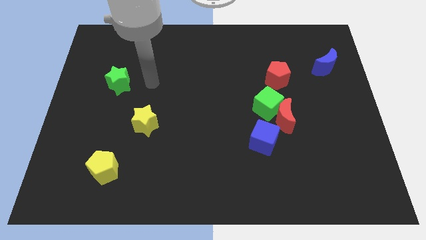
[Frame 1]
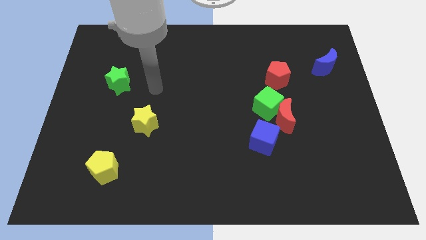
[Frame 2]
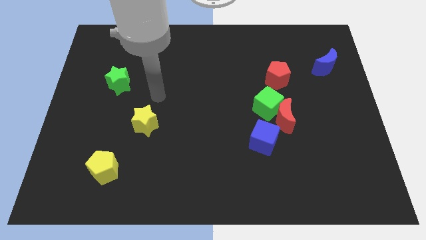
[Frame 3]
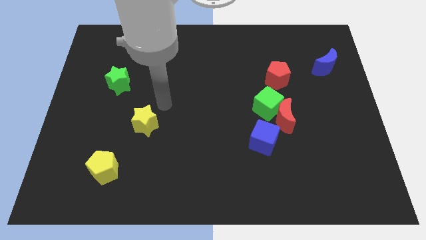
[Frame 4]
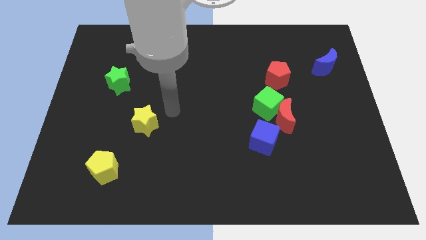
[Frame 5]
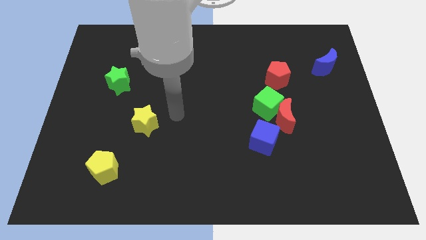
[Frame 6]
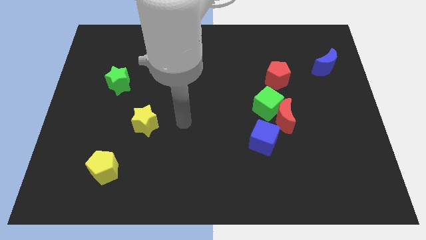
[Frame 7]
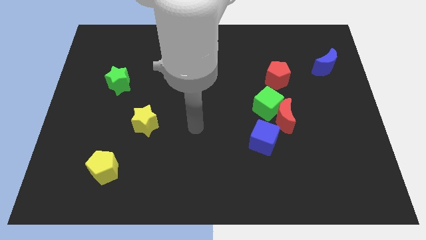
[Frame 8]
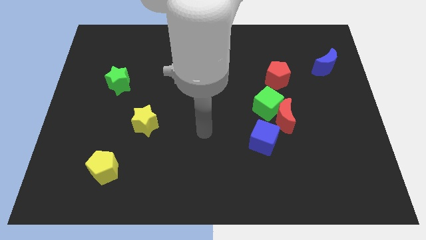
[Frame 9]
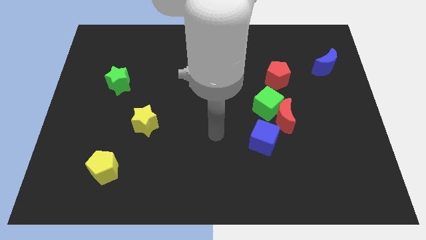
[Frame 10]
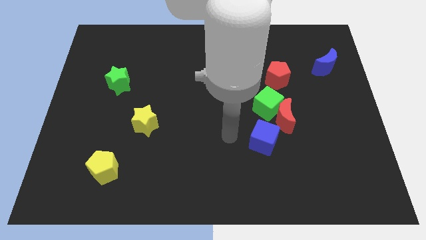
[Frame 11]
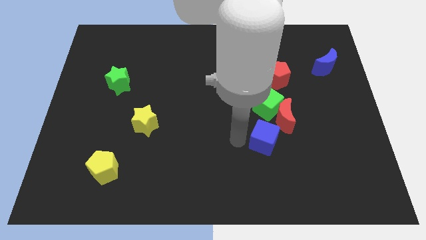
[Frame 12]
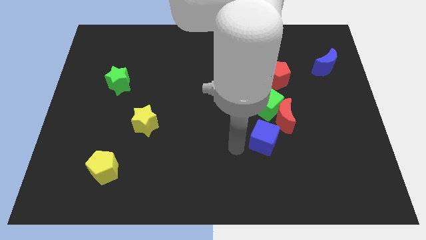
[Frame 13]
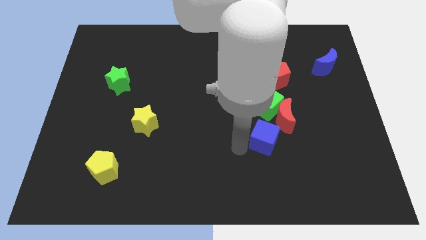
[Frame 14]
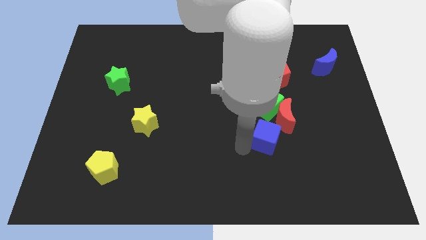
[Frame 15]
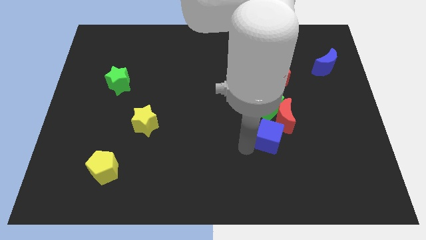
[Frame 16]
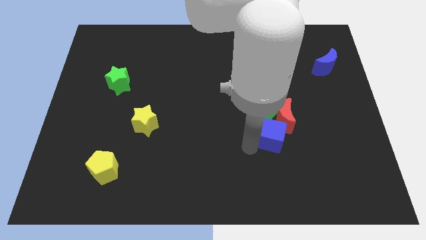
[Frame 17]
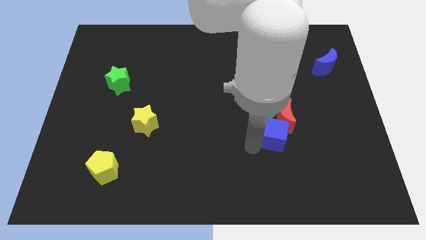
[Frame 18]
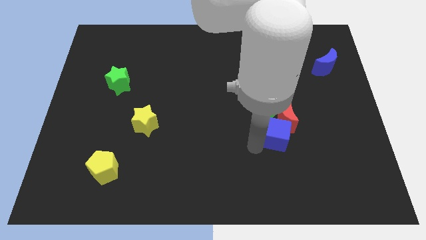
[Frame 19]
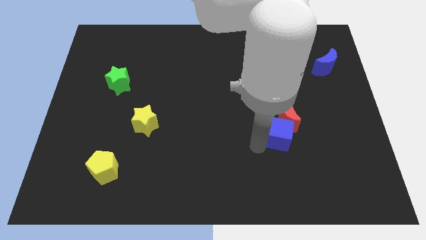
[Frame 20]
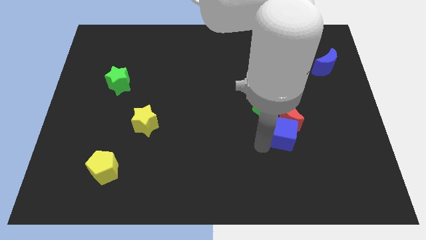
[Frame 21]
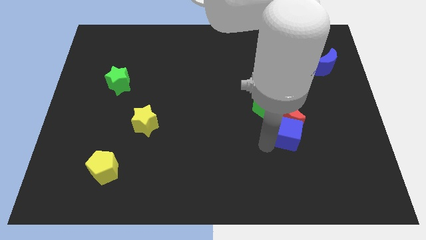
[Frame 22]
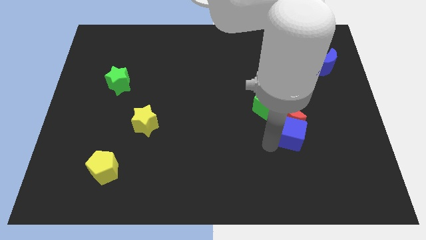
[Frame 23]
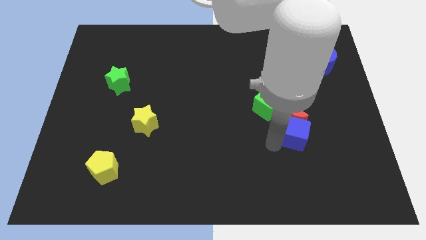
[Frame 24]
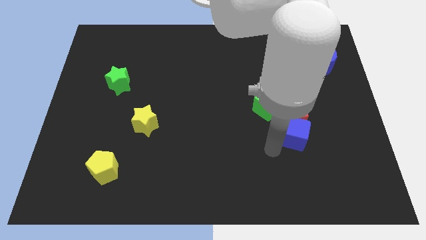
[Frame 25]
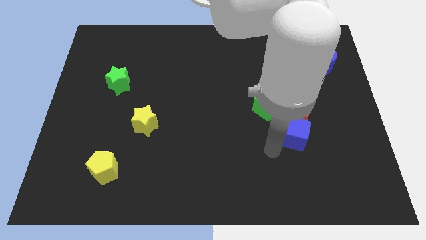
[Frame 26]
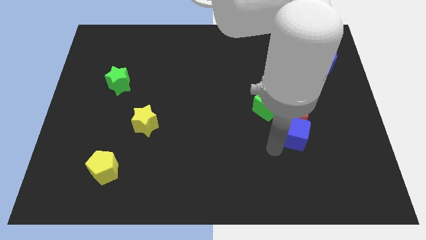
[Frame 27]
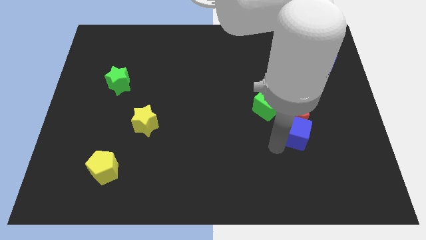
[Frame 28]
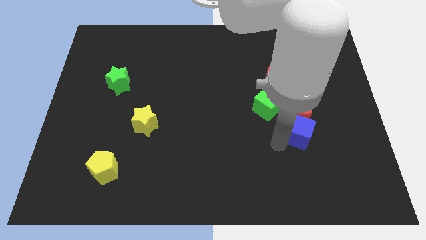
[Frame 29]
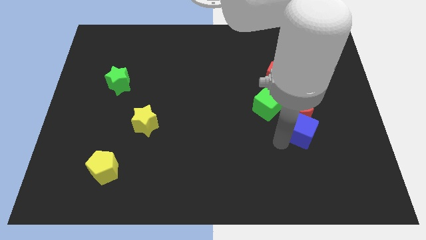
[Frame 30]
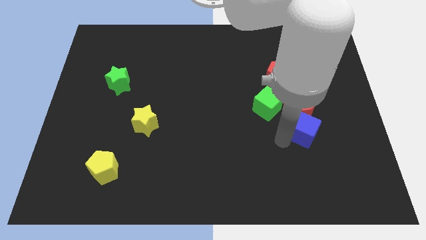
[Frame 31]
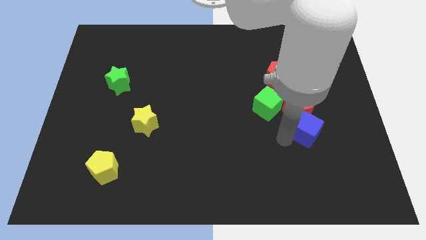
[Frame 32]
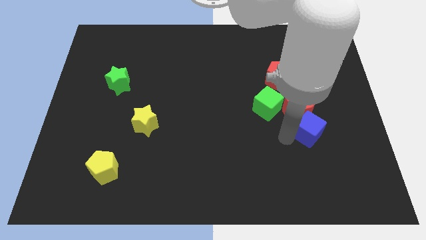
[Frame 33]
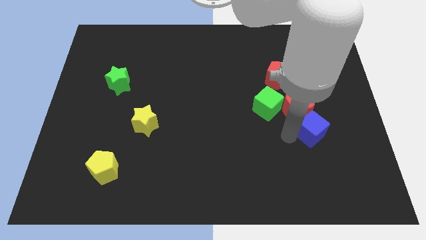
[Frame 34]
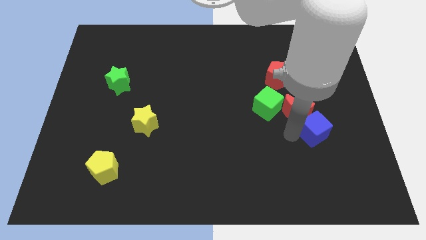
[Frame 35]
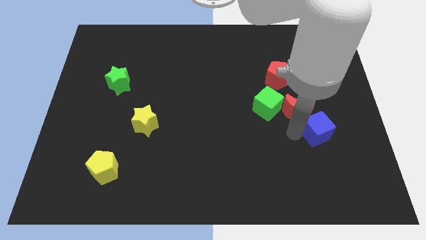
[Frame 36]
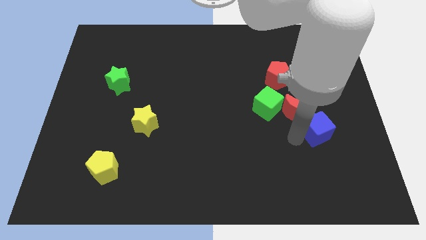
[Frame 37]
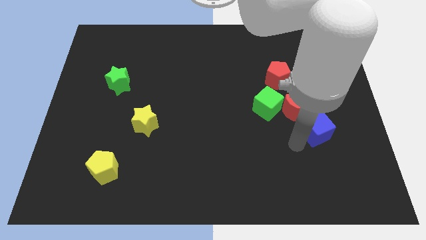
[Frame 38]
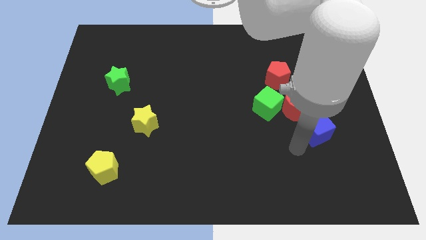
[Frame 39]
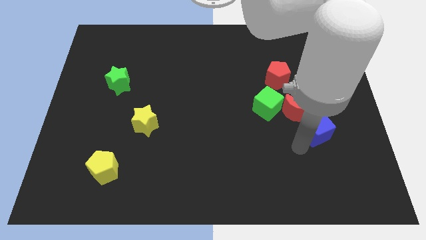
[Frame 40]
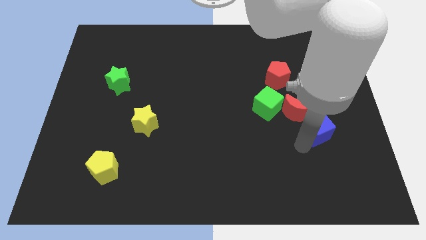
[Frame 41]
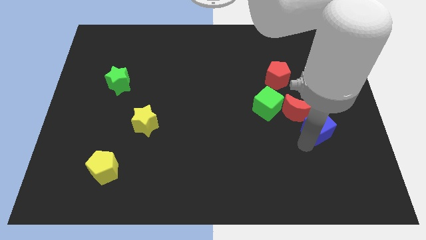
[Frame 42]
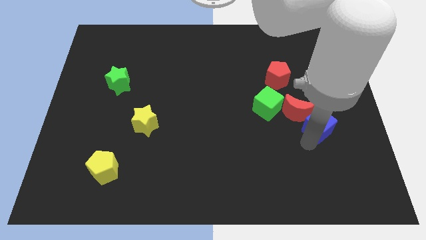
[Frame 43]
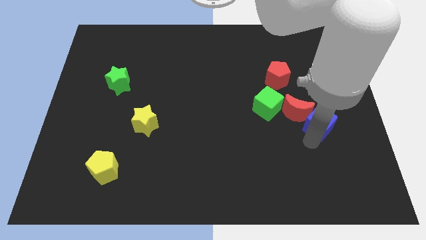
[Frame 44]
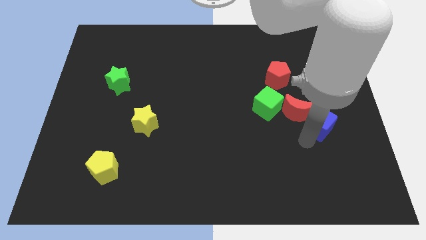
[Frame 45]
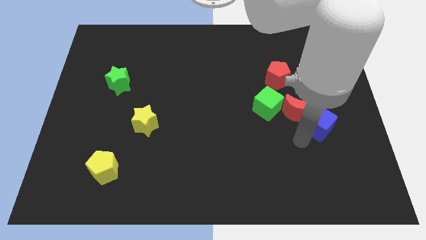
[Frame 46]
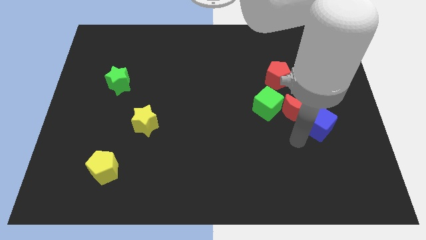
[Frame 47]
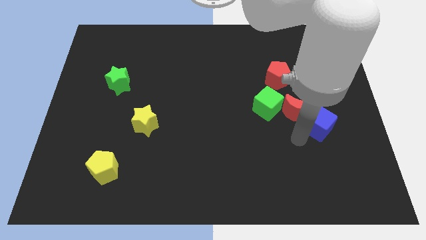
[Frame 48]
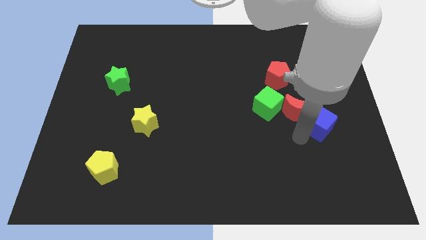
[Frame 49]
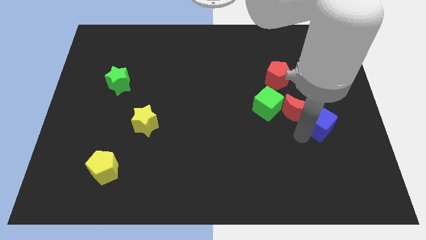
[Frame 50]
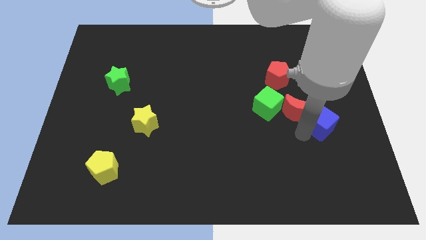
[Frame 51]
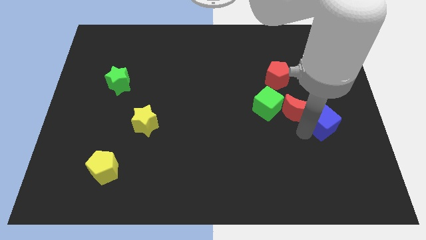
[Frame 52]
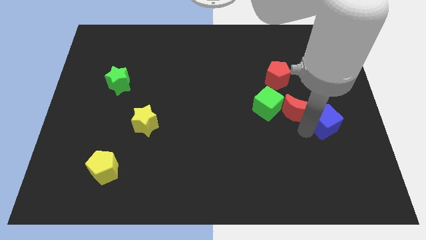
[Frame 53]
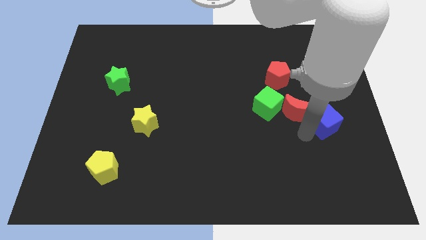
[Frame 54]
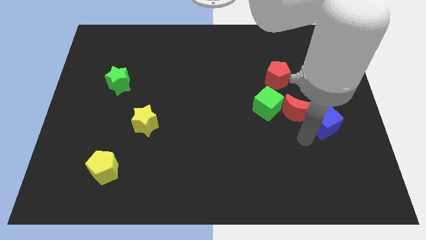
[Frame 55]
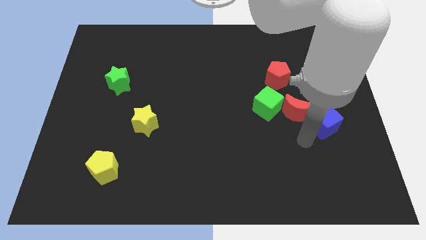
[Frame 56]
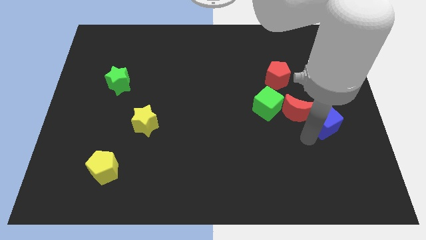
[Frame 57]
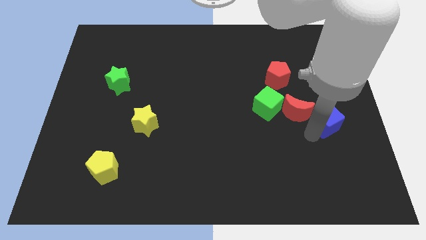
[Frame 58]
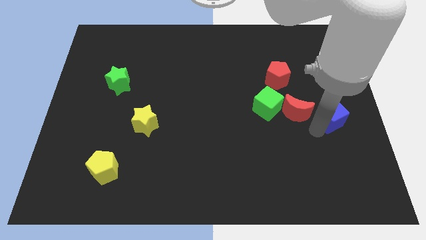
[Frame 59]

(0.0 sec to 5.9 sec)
put the blue cube to the right side
